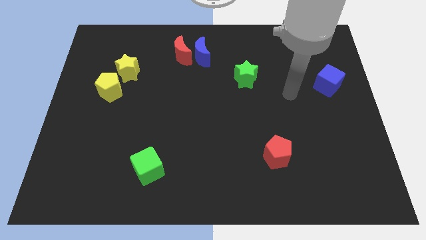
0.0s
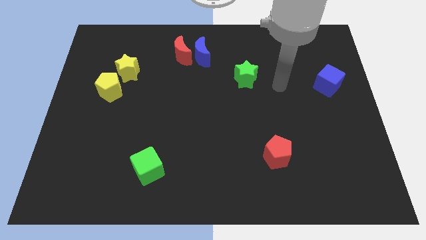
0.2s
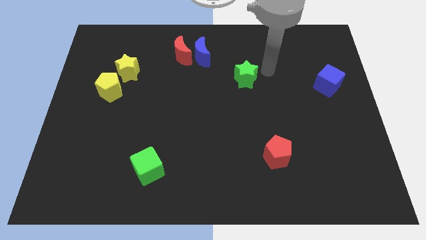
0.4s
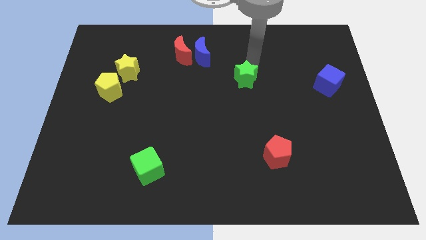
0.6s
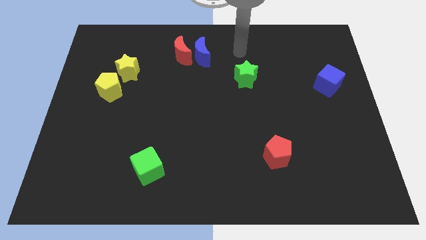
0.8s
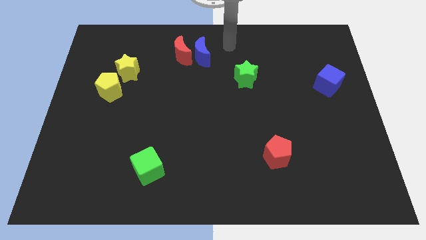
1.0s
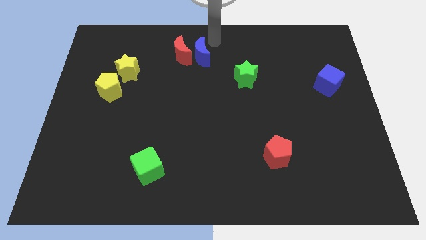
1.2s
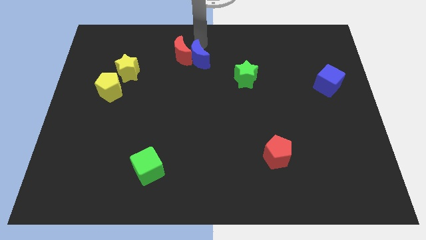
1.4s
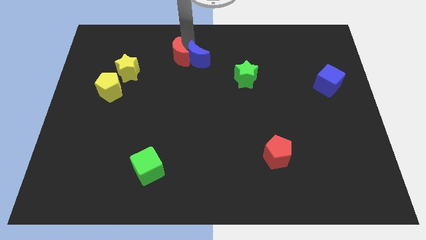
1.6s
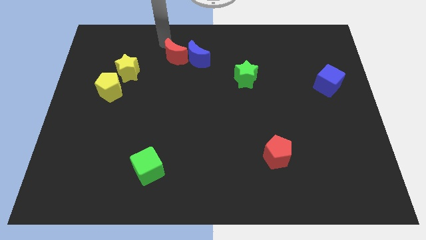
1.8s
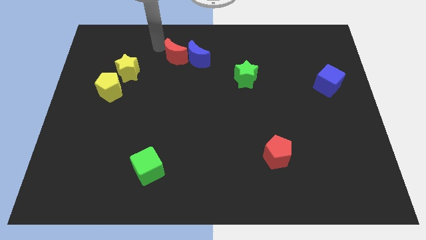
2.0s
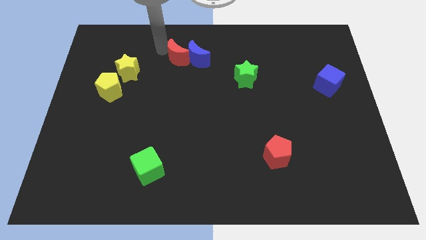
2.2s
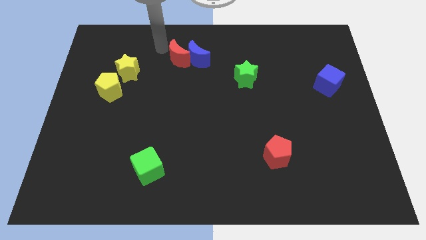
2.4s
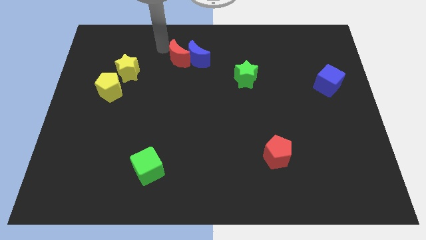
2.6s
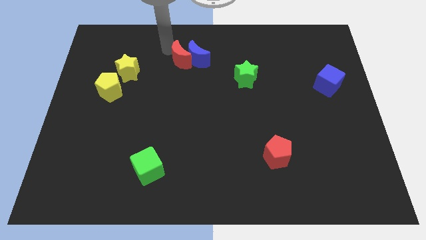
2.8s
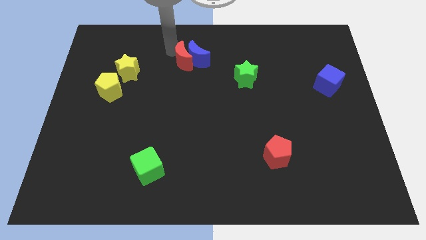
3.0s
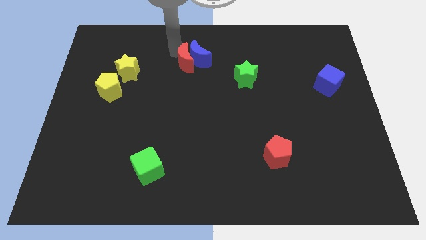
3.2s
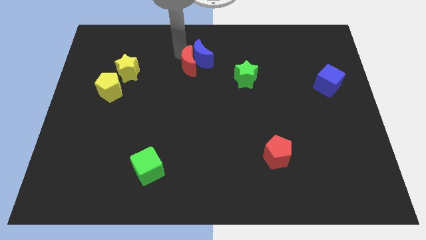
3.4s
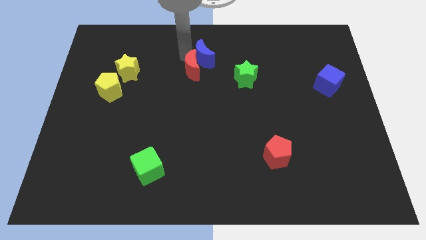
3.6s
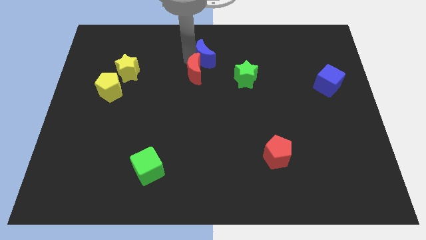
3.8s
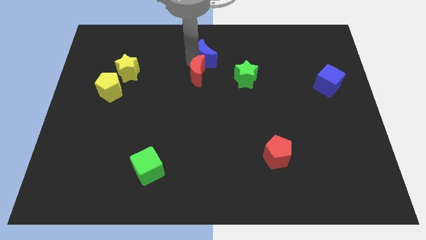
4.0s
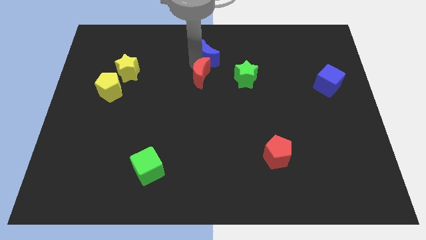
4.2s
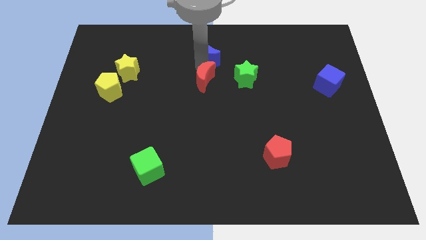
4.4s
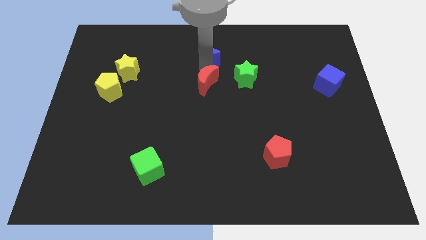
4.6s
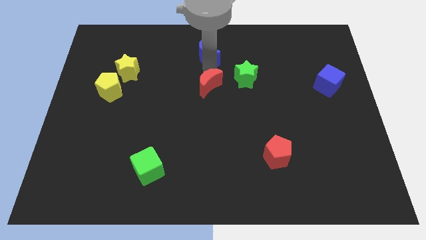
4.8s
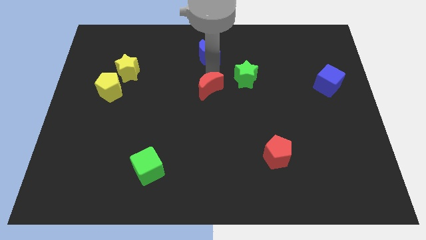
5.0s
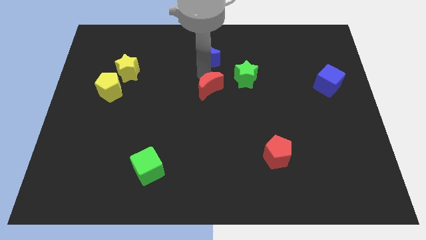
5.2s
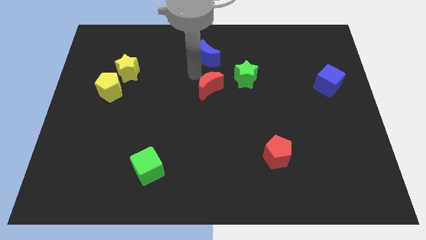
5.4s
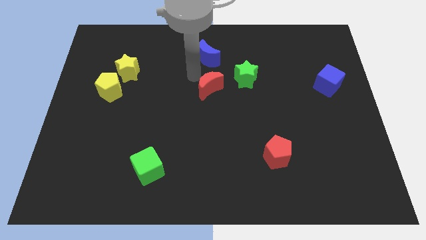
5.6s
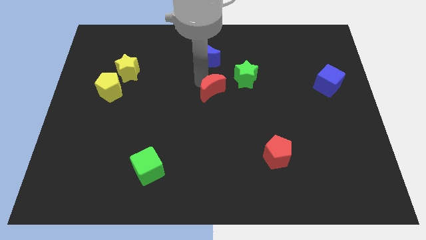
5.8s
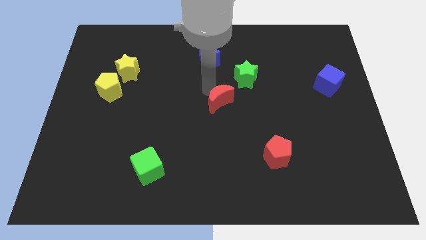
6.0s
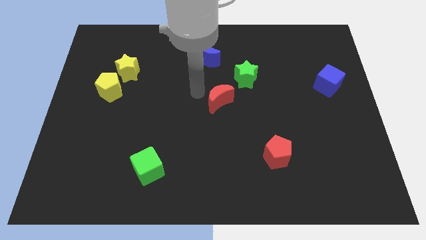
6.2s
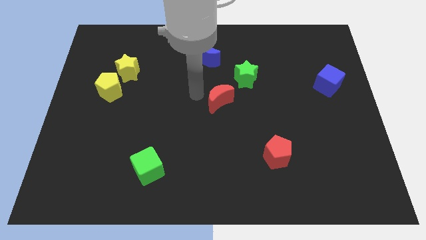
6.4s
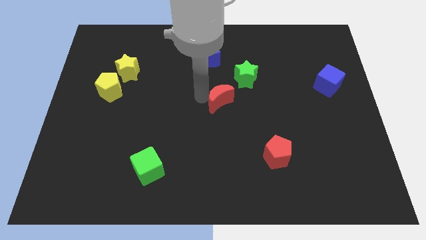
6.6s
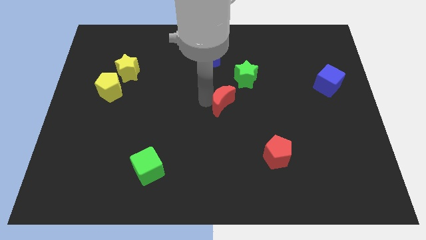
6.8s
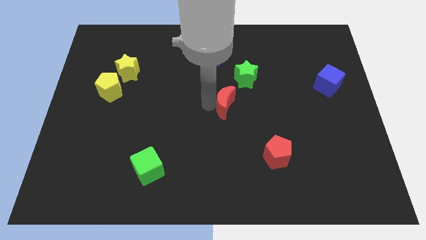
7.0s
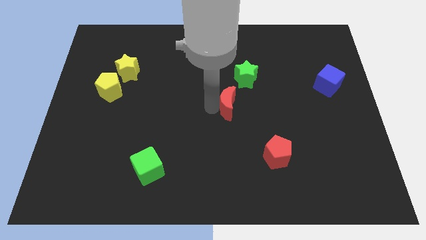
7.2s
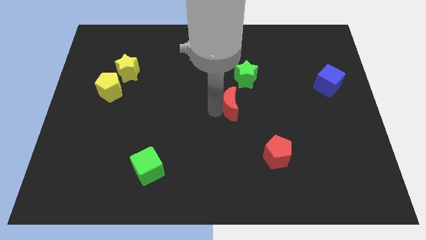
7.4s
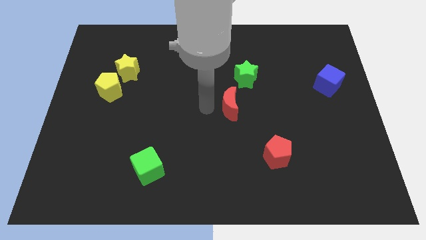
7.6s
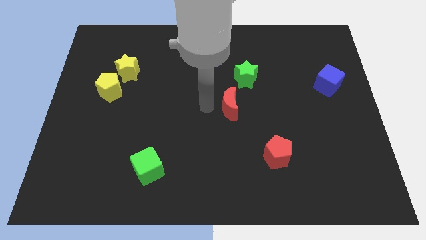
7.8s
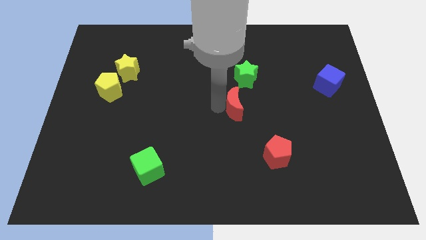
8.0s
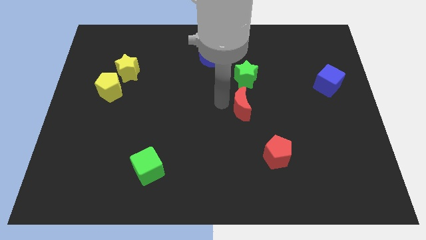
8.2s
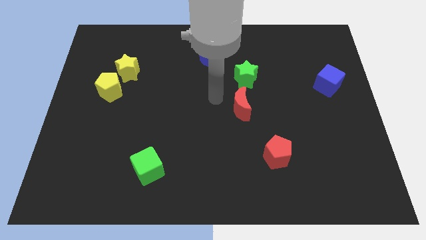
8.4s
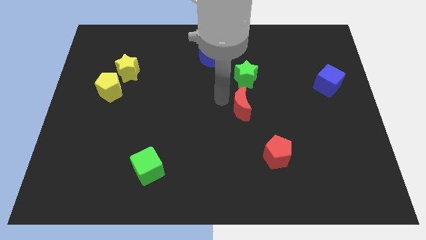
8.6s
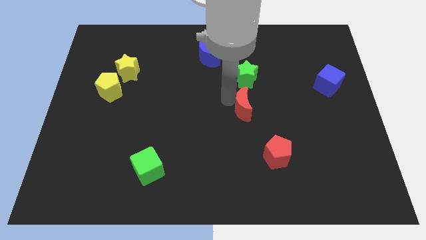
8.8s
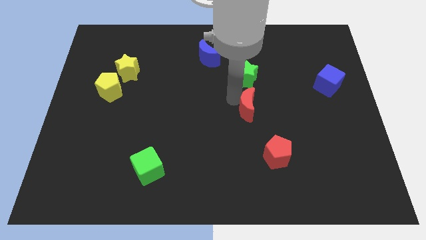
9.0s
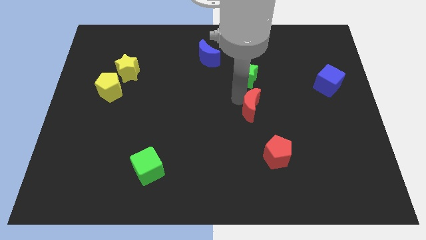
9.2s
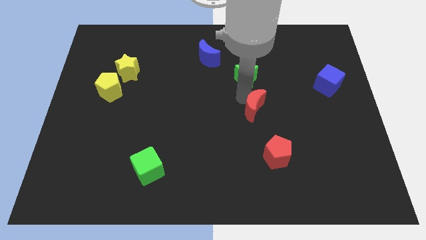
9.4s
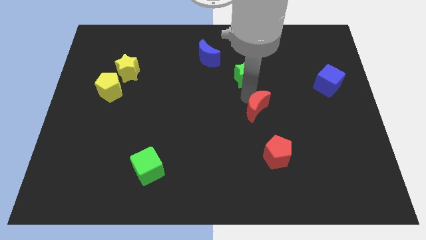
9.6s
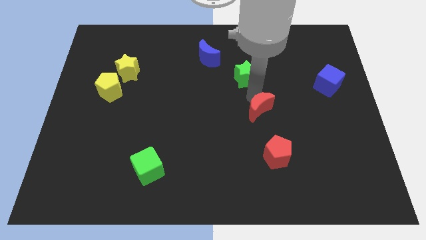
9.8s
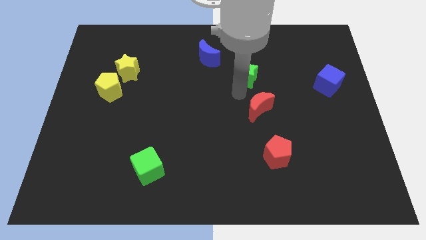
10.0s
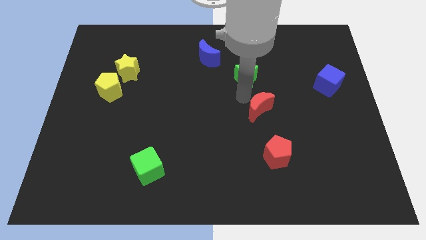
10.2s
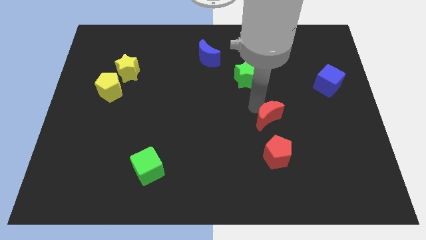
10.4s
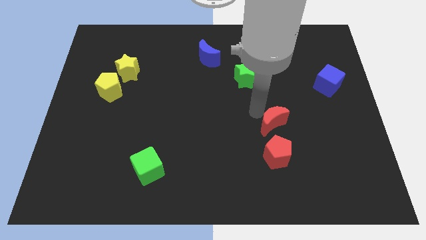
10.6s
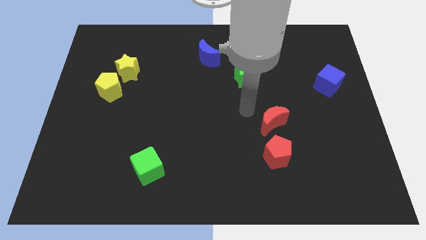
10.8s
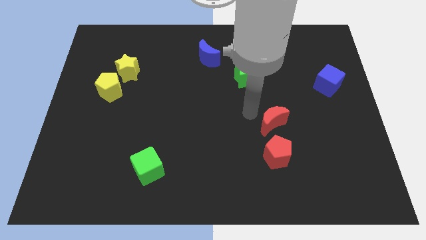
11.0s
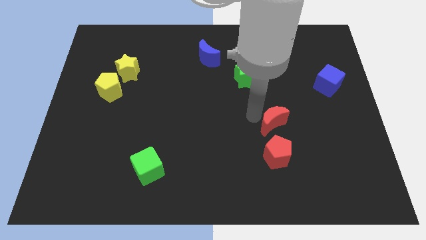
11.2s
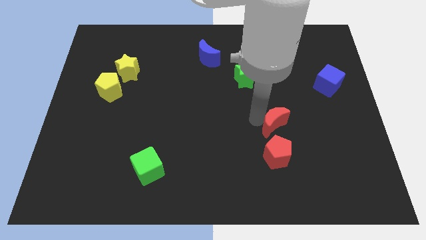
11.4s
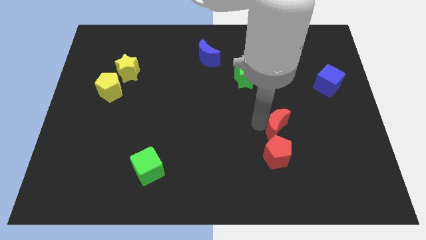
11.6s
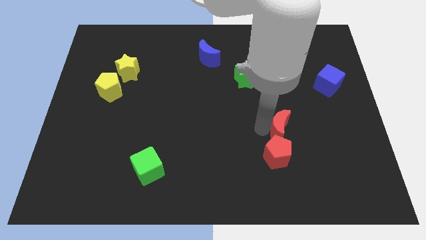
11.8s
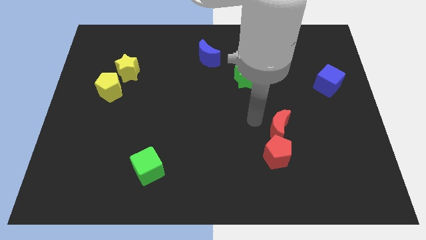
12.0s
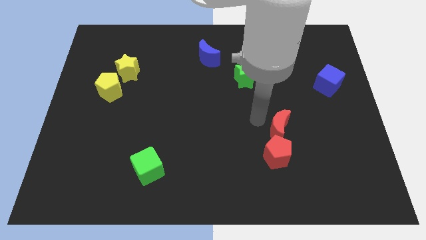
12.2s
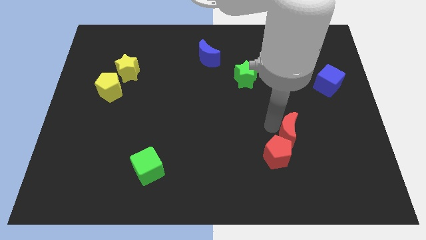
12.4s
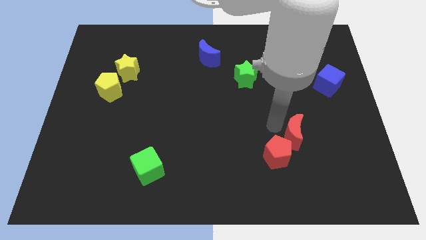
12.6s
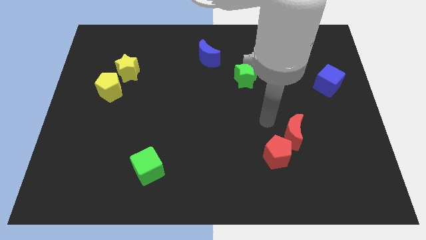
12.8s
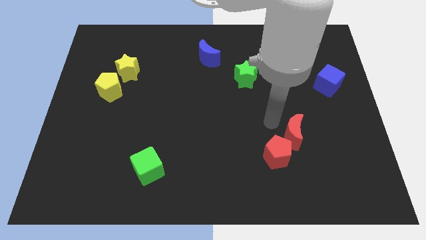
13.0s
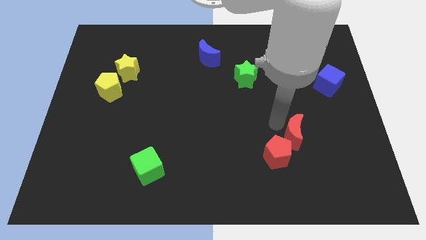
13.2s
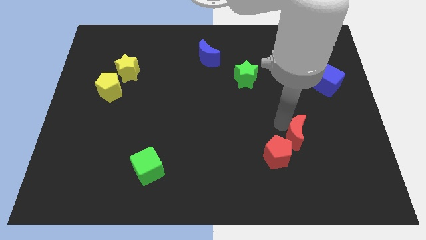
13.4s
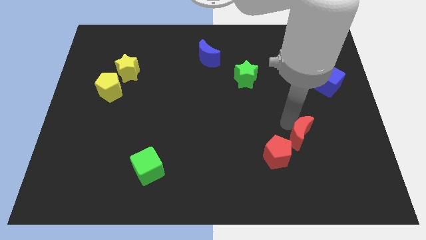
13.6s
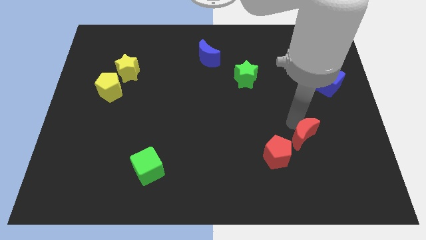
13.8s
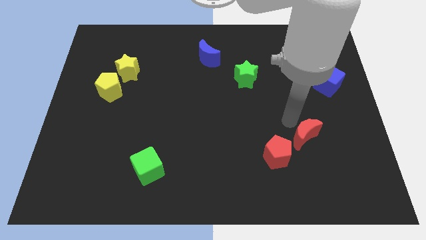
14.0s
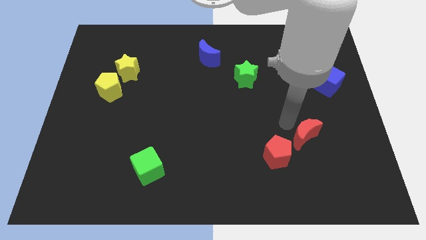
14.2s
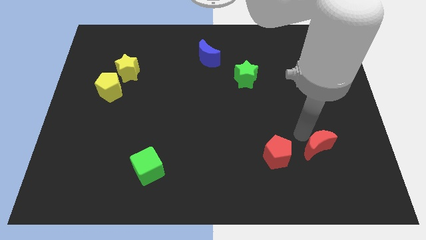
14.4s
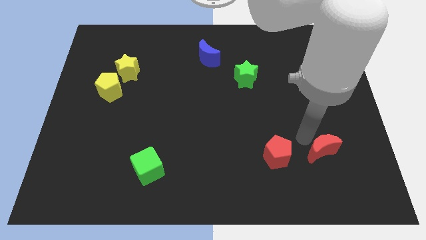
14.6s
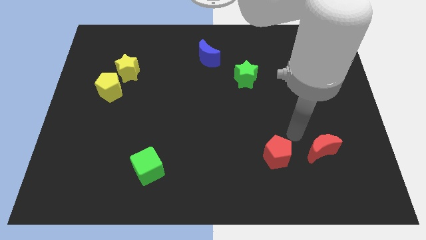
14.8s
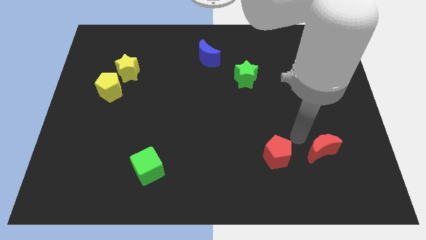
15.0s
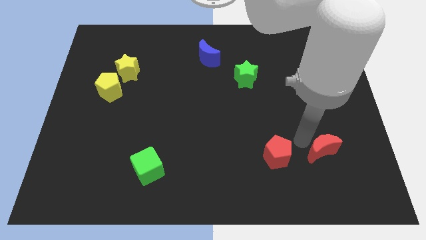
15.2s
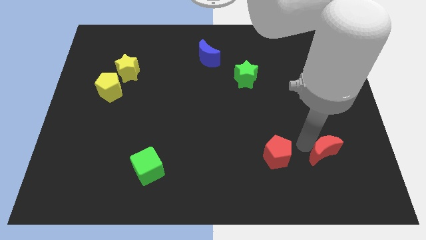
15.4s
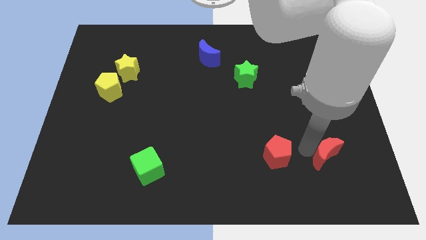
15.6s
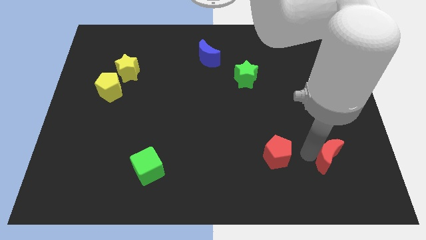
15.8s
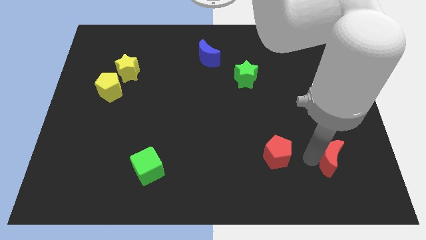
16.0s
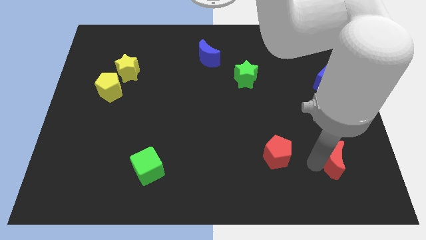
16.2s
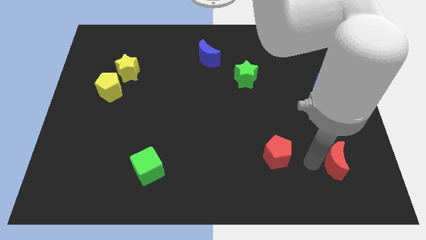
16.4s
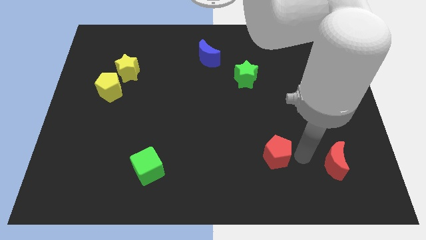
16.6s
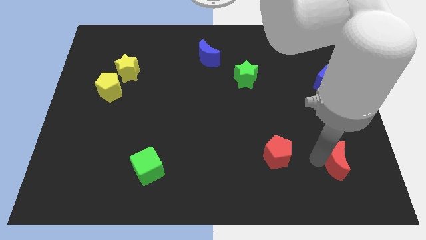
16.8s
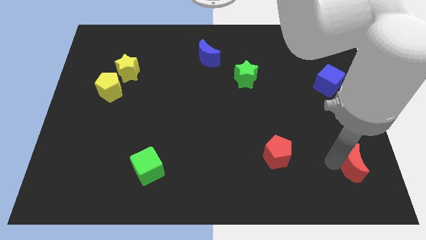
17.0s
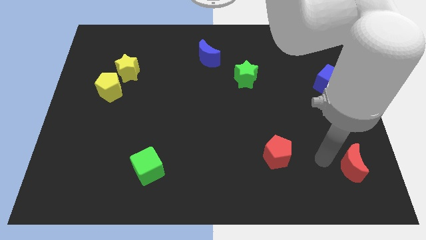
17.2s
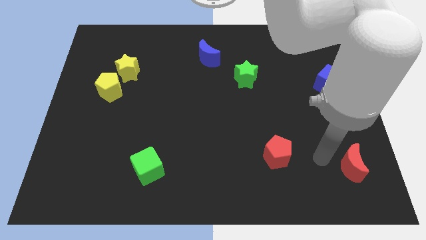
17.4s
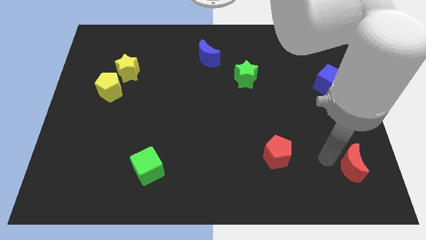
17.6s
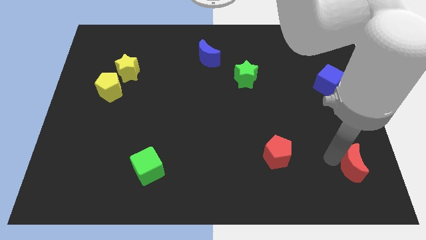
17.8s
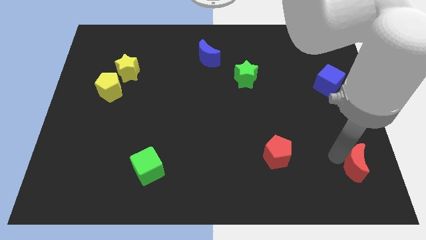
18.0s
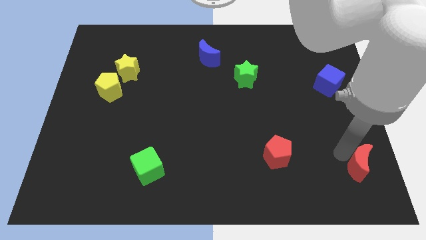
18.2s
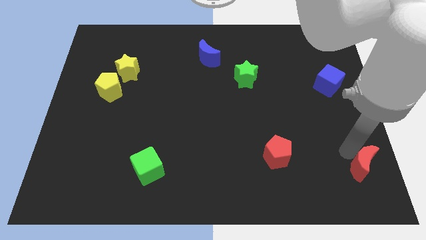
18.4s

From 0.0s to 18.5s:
push the red moon to the bottom right corner
